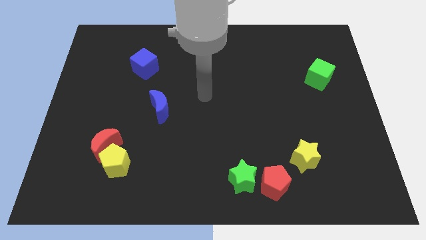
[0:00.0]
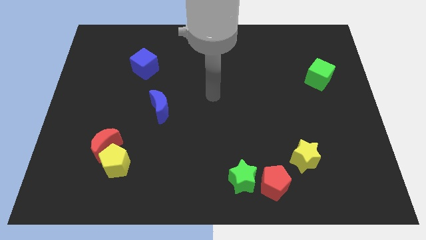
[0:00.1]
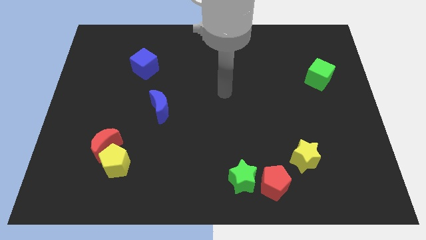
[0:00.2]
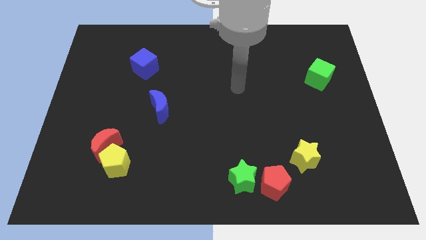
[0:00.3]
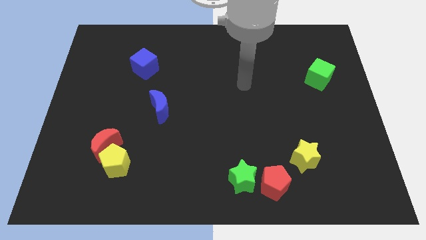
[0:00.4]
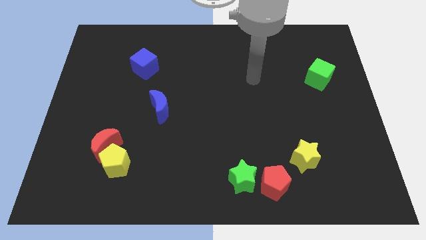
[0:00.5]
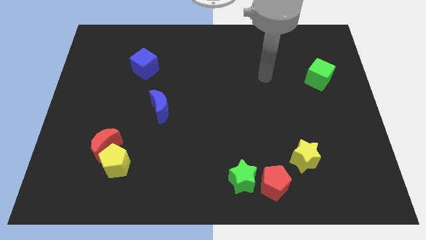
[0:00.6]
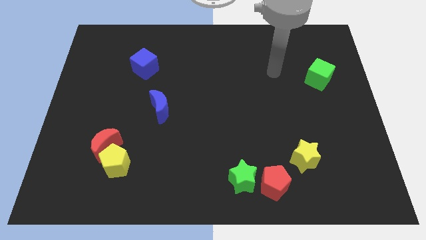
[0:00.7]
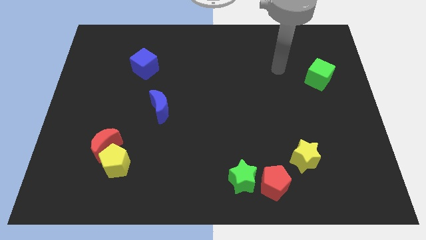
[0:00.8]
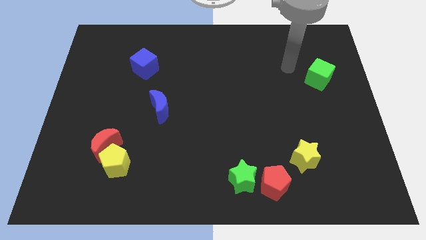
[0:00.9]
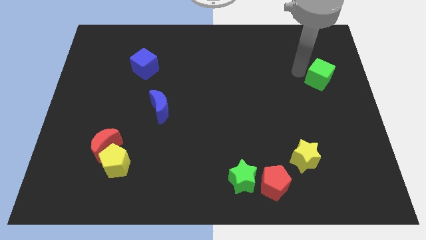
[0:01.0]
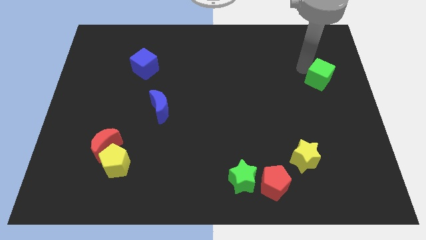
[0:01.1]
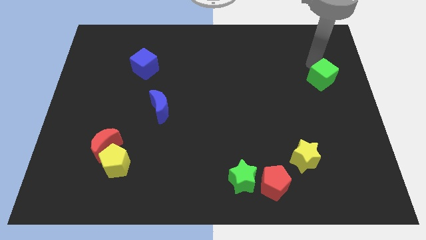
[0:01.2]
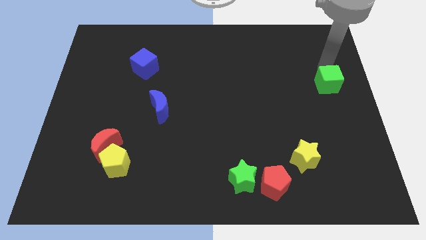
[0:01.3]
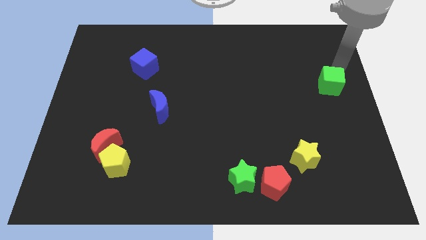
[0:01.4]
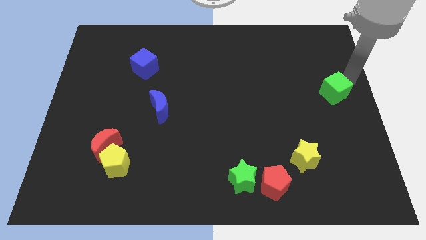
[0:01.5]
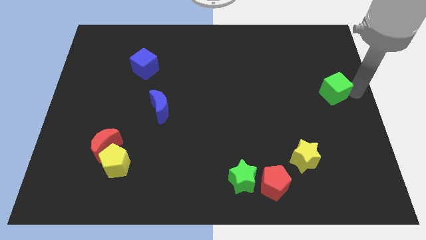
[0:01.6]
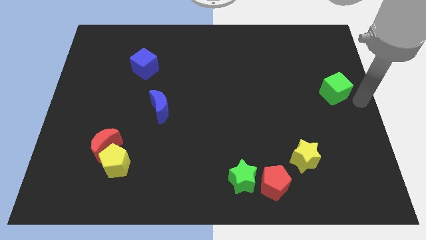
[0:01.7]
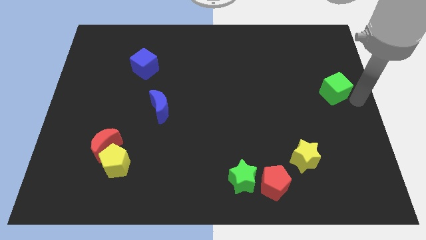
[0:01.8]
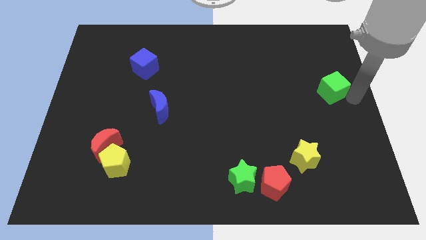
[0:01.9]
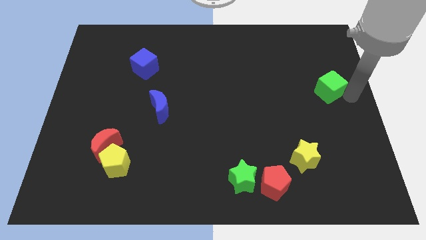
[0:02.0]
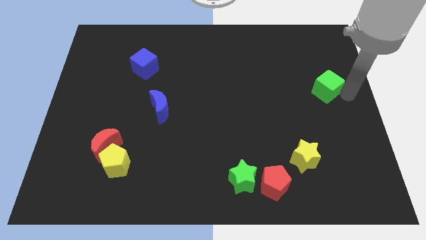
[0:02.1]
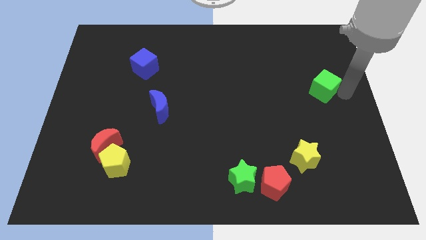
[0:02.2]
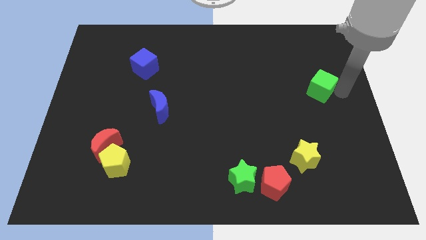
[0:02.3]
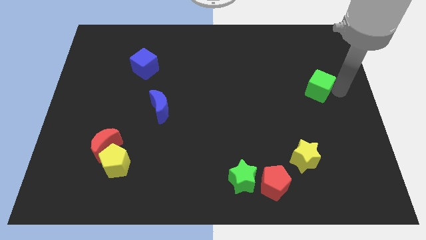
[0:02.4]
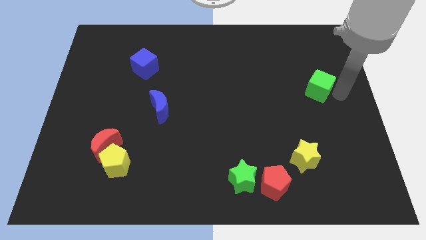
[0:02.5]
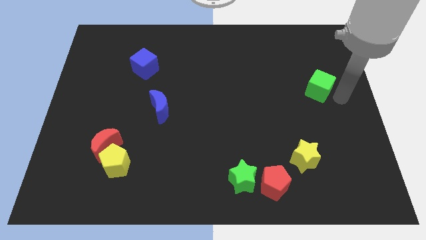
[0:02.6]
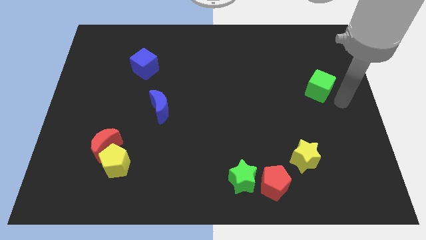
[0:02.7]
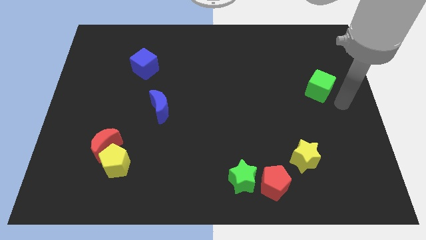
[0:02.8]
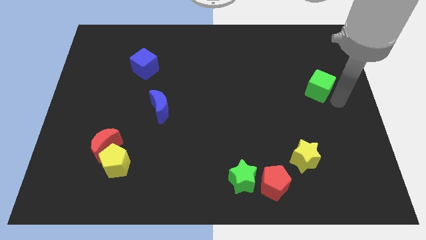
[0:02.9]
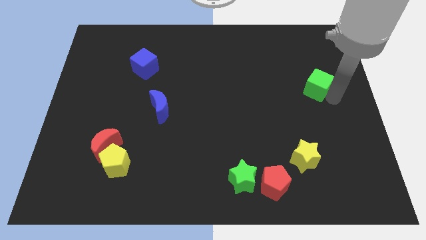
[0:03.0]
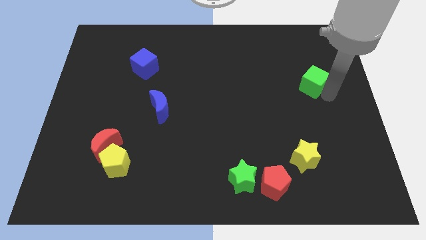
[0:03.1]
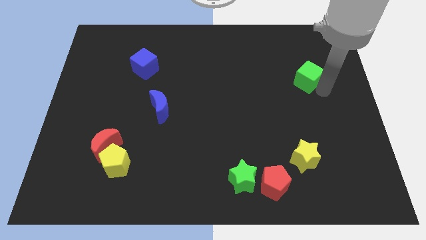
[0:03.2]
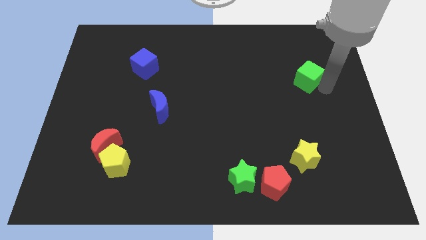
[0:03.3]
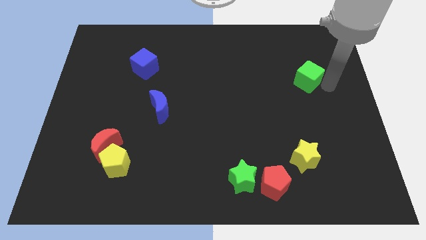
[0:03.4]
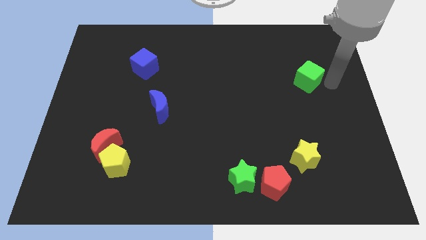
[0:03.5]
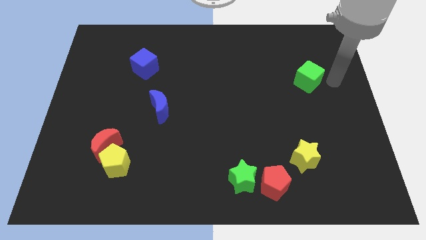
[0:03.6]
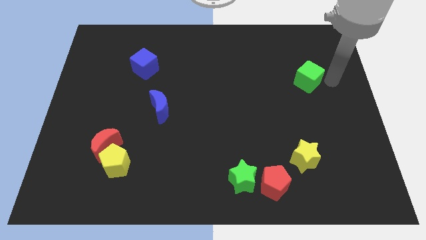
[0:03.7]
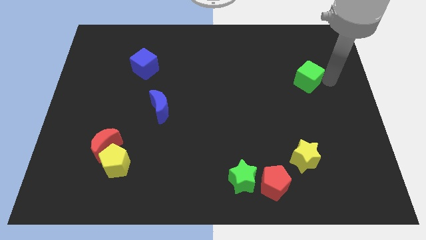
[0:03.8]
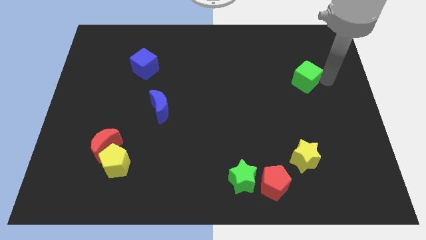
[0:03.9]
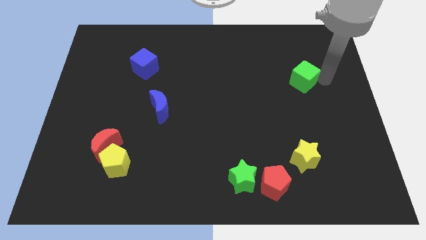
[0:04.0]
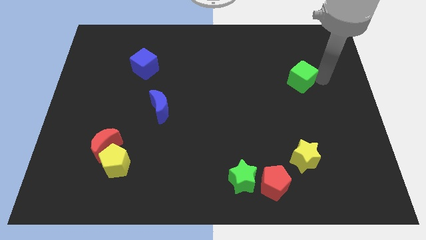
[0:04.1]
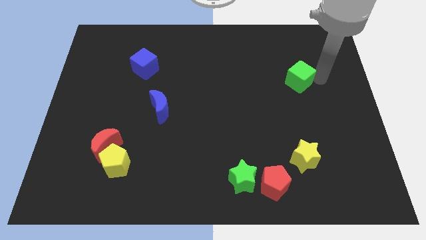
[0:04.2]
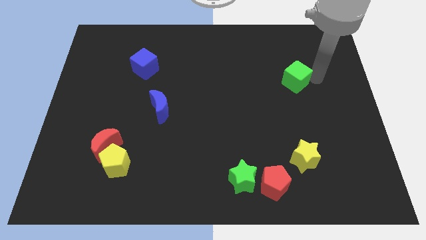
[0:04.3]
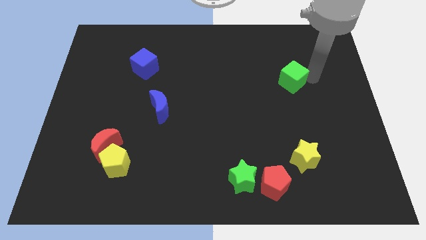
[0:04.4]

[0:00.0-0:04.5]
slightly move the green cube to the left

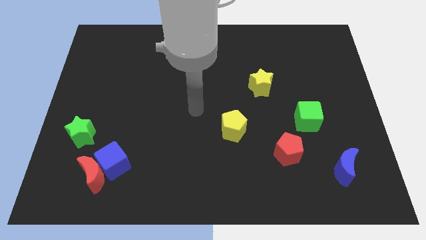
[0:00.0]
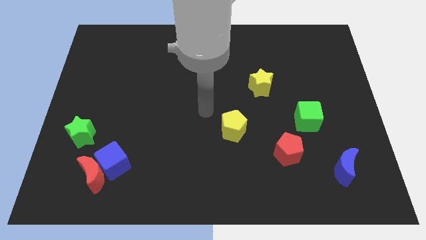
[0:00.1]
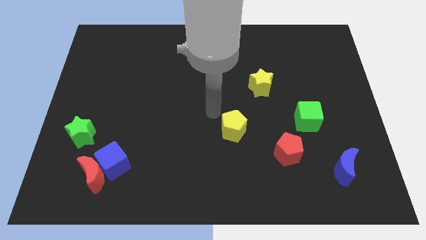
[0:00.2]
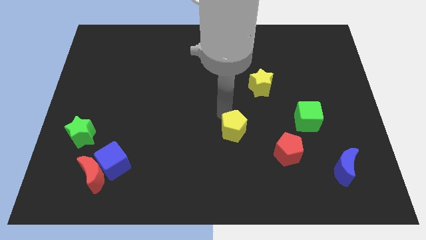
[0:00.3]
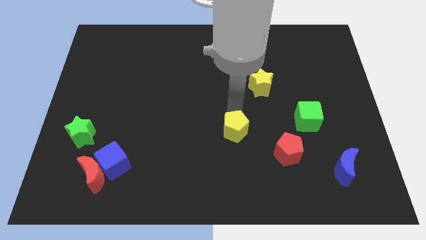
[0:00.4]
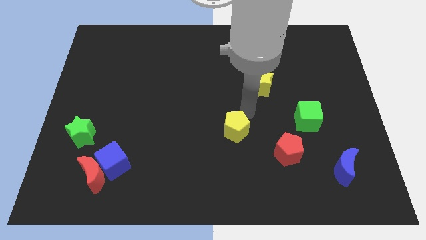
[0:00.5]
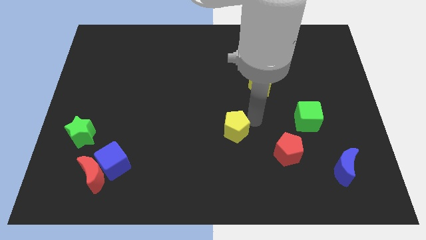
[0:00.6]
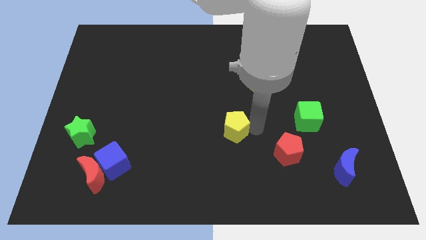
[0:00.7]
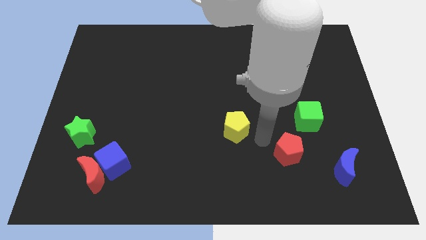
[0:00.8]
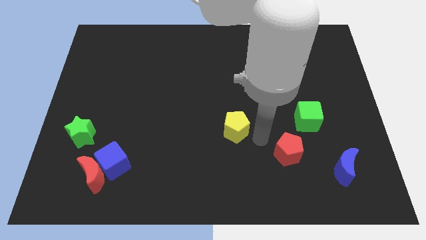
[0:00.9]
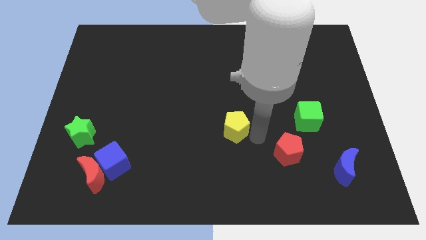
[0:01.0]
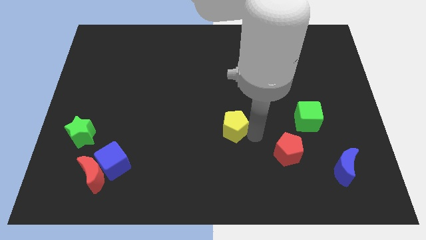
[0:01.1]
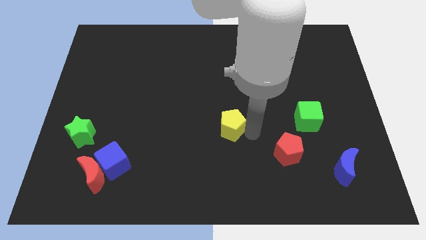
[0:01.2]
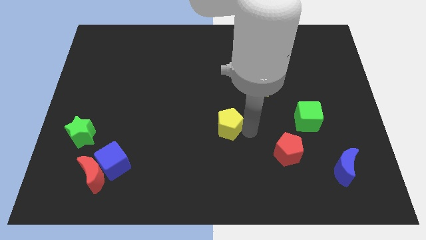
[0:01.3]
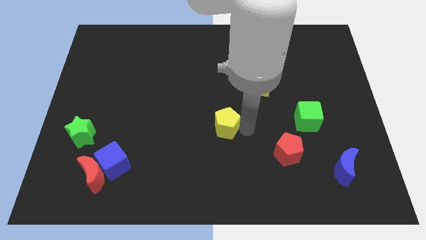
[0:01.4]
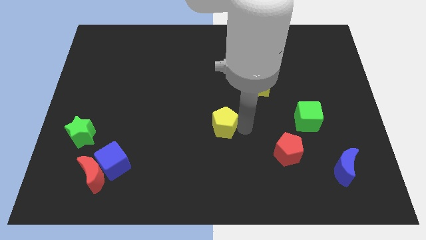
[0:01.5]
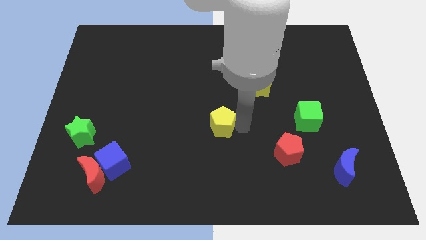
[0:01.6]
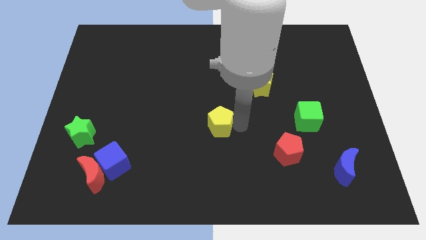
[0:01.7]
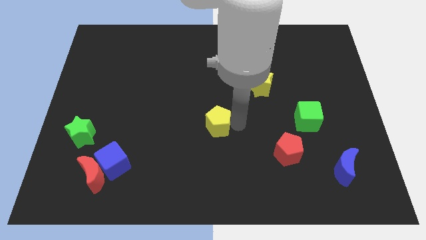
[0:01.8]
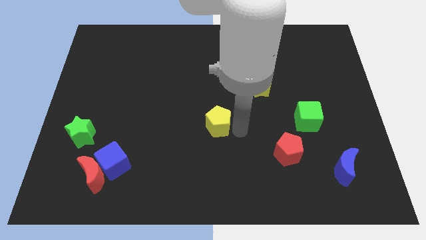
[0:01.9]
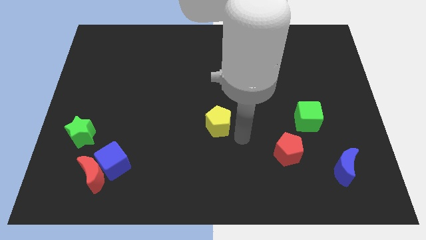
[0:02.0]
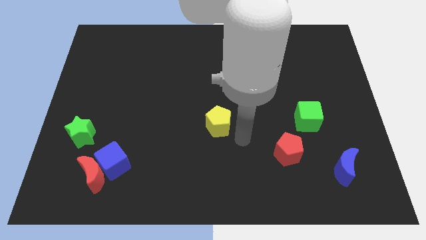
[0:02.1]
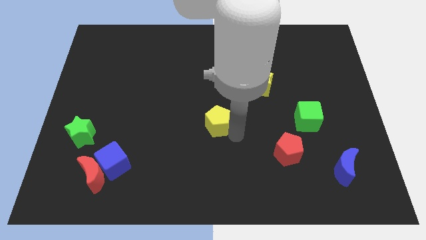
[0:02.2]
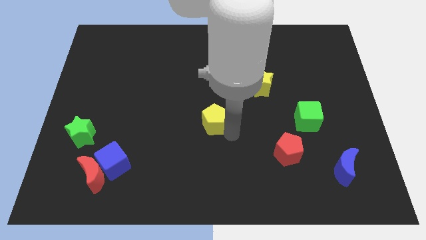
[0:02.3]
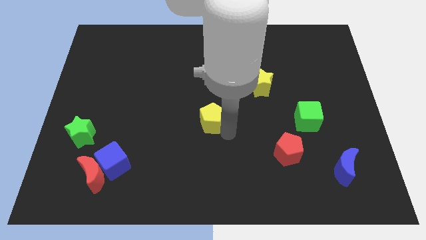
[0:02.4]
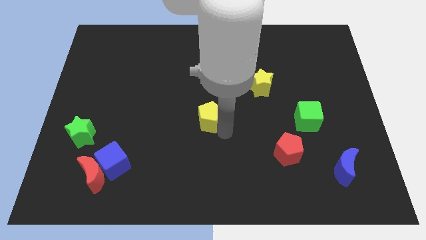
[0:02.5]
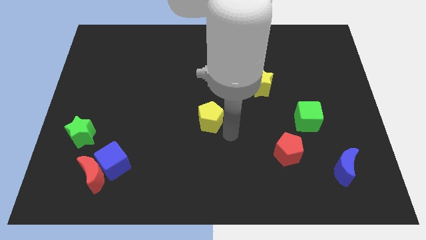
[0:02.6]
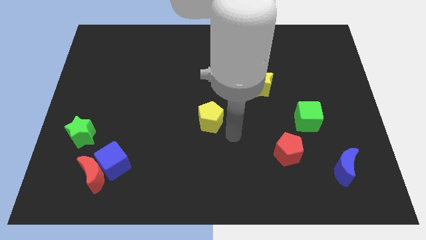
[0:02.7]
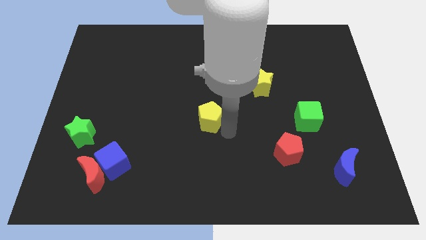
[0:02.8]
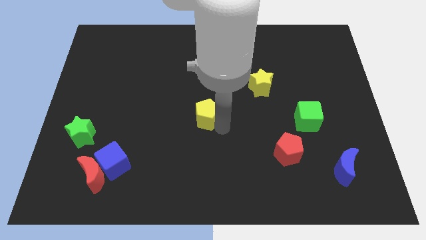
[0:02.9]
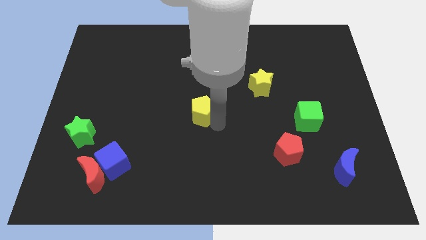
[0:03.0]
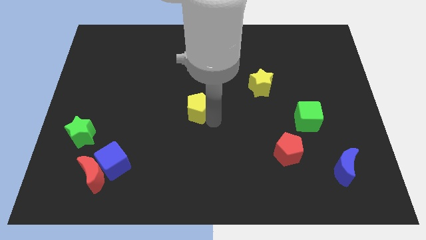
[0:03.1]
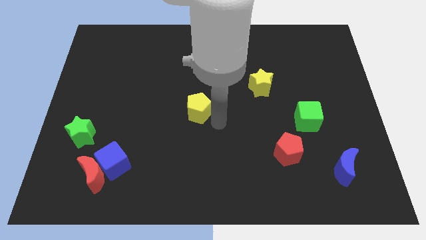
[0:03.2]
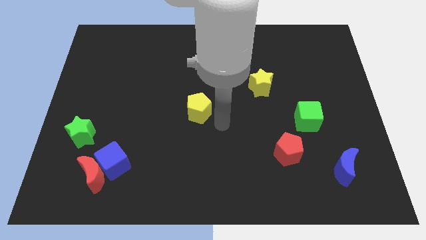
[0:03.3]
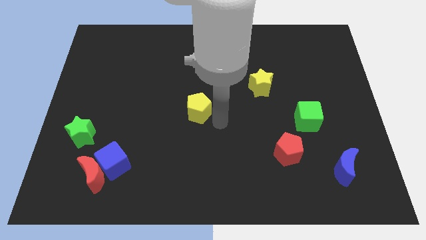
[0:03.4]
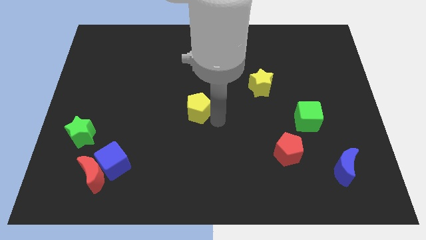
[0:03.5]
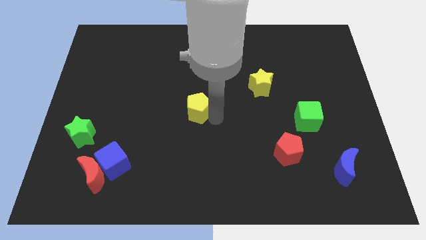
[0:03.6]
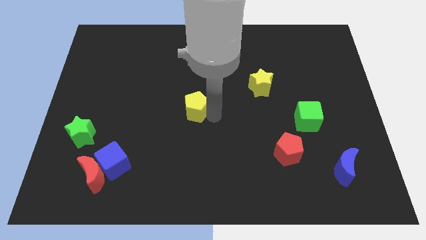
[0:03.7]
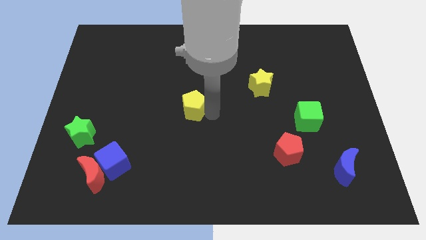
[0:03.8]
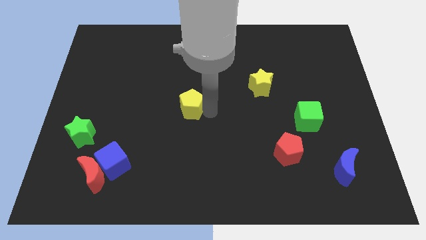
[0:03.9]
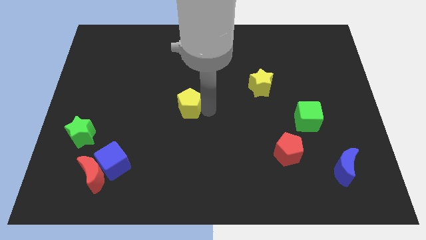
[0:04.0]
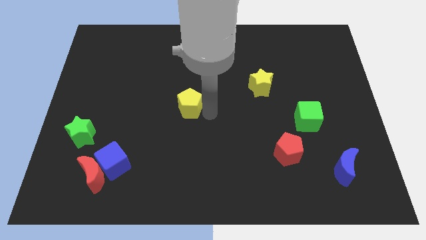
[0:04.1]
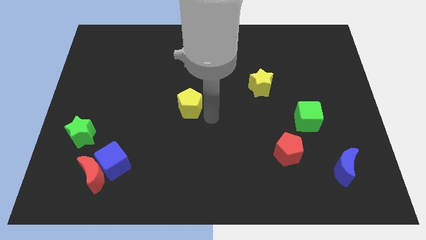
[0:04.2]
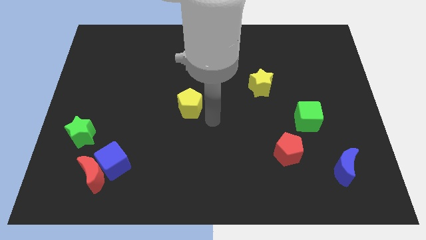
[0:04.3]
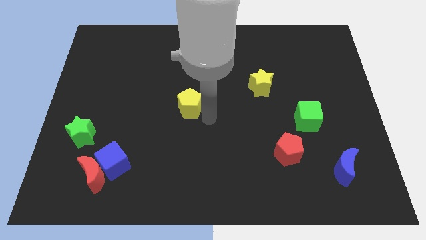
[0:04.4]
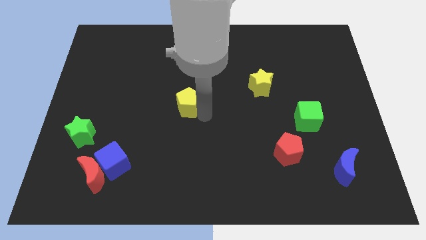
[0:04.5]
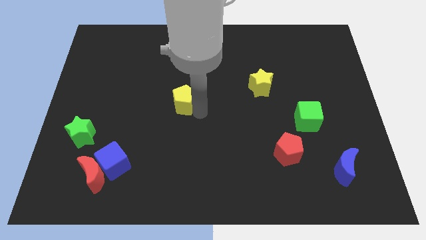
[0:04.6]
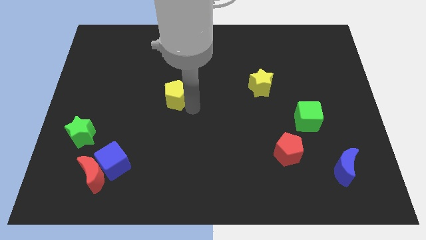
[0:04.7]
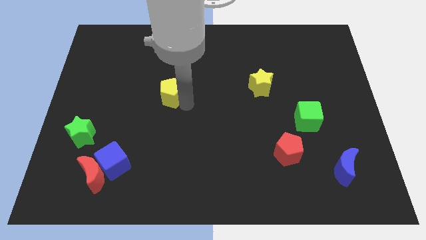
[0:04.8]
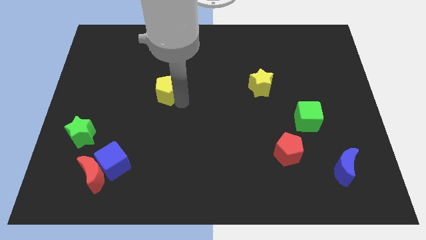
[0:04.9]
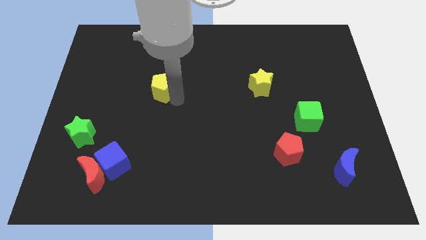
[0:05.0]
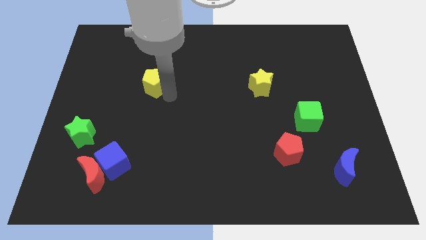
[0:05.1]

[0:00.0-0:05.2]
move the yellow pentagon diagonally up and to the left
